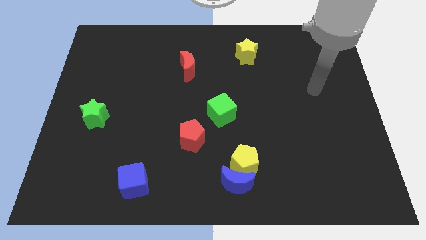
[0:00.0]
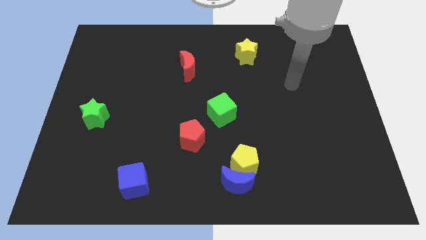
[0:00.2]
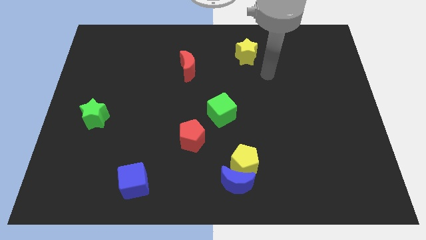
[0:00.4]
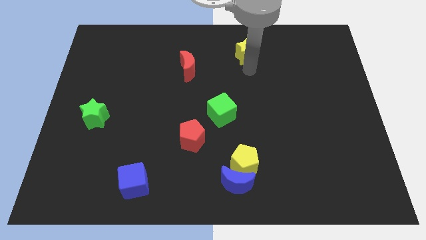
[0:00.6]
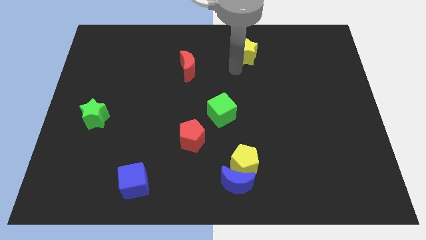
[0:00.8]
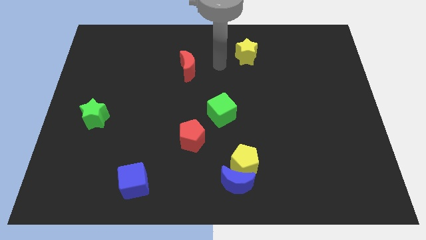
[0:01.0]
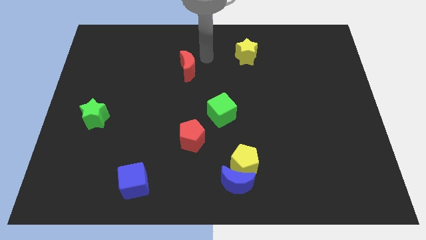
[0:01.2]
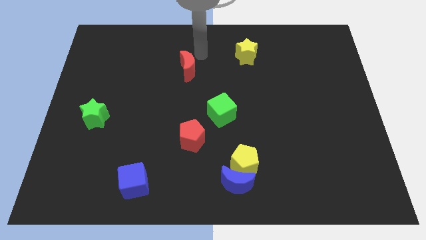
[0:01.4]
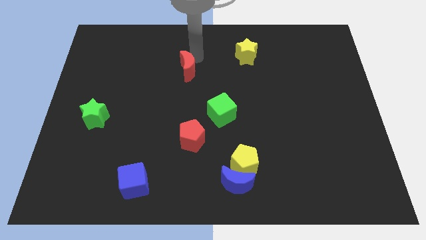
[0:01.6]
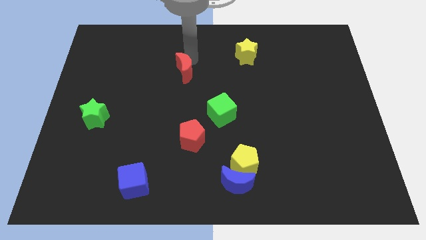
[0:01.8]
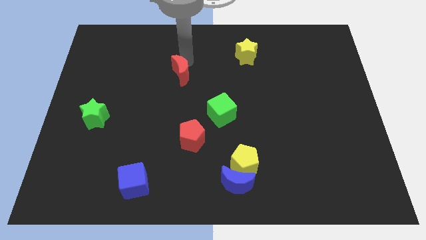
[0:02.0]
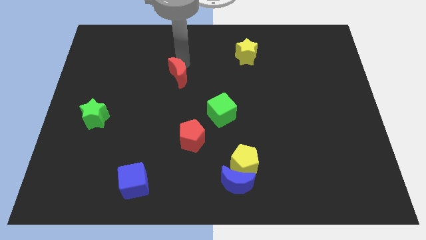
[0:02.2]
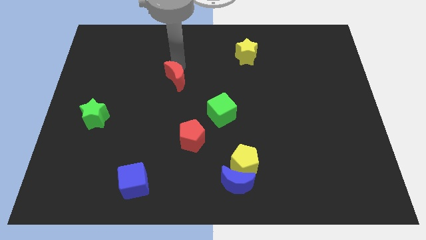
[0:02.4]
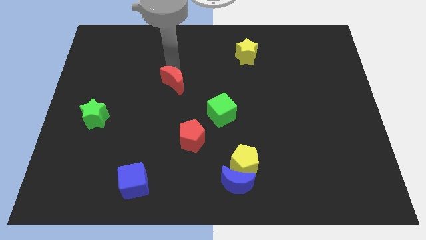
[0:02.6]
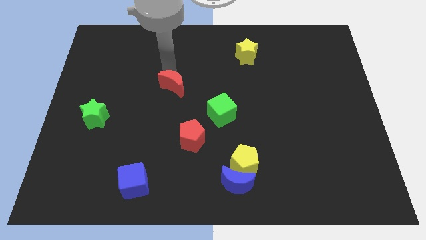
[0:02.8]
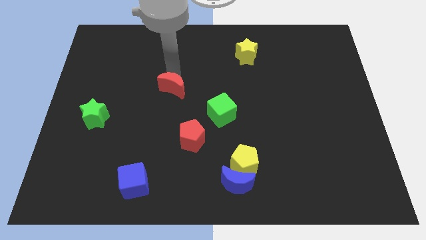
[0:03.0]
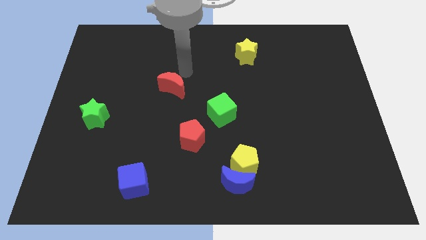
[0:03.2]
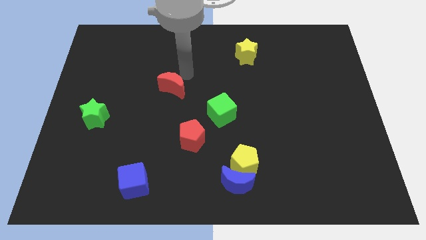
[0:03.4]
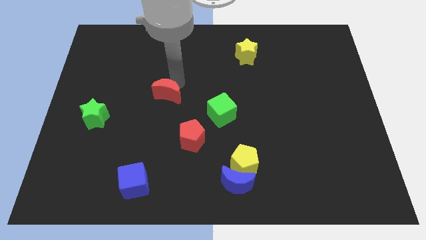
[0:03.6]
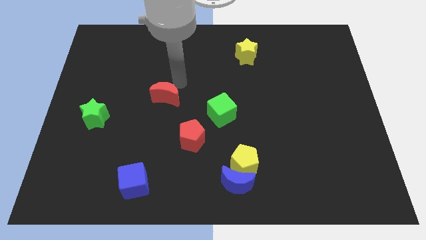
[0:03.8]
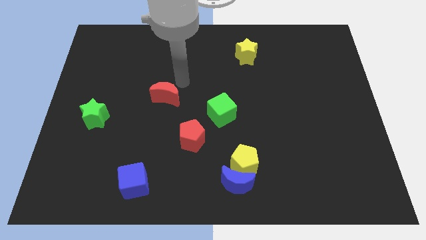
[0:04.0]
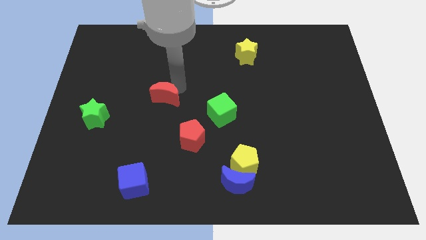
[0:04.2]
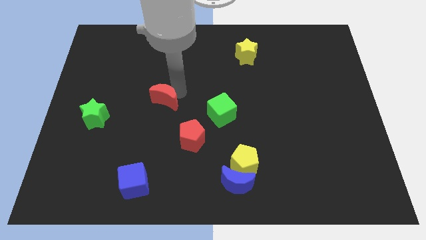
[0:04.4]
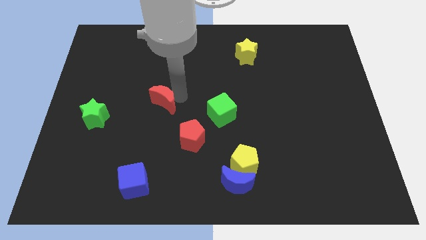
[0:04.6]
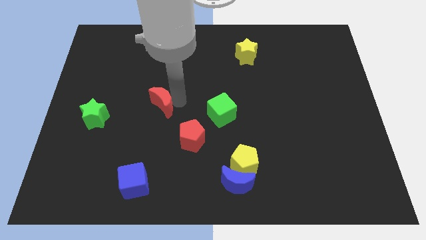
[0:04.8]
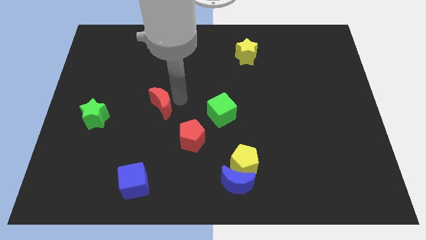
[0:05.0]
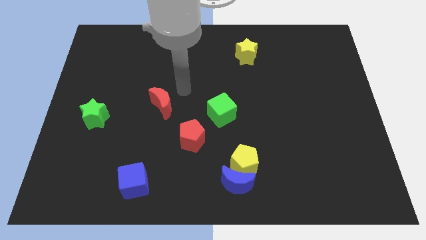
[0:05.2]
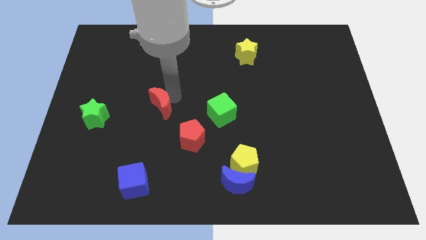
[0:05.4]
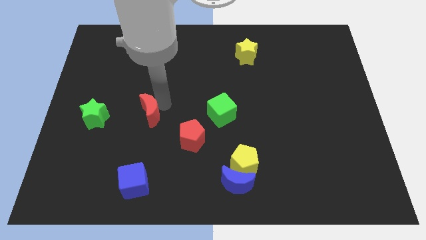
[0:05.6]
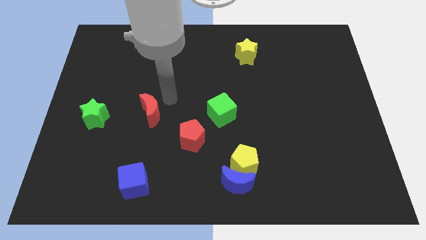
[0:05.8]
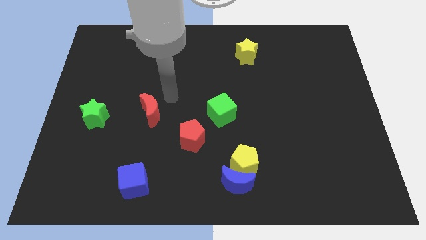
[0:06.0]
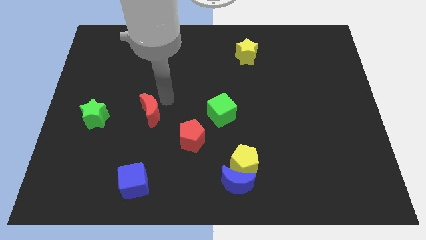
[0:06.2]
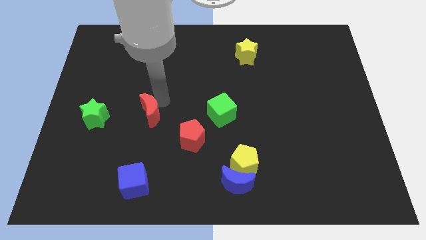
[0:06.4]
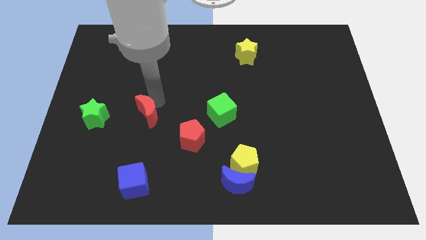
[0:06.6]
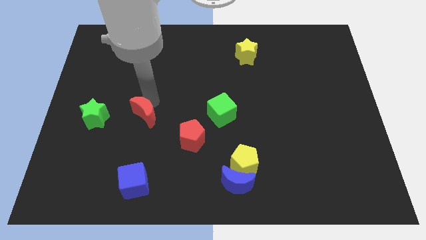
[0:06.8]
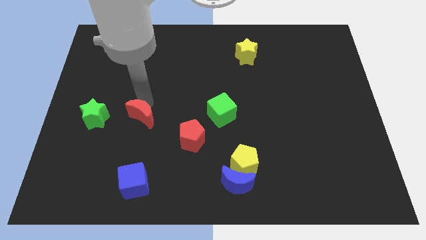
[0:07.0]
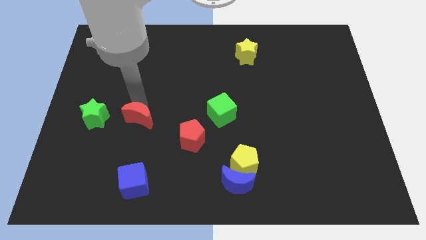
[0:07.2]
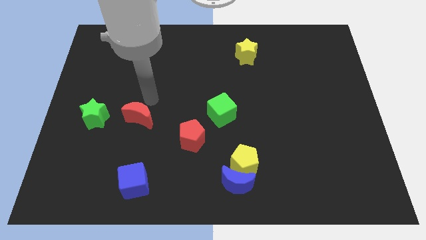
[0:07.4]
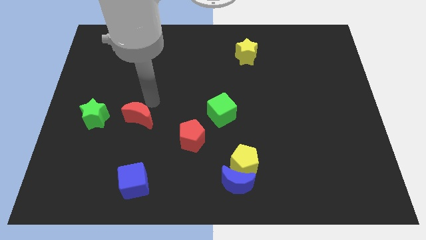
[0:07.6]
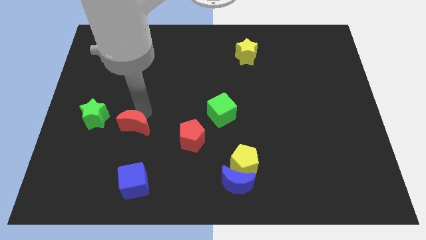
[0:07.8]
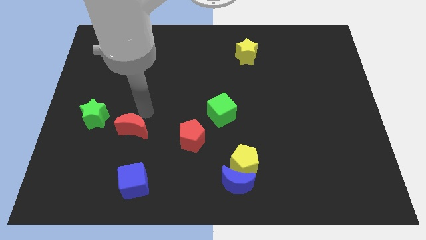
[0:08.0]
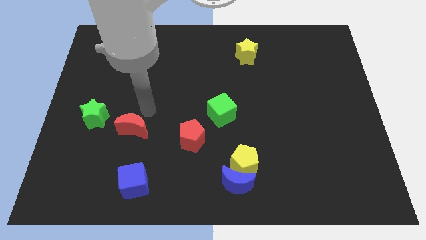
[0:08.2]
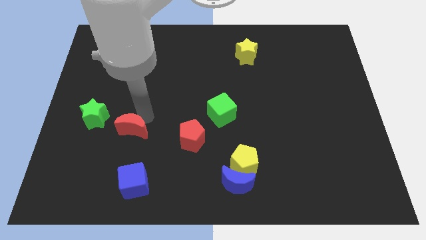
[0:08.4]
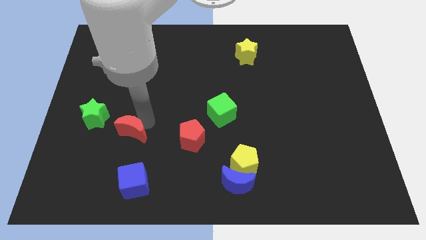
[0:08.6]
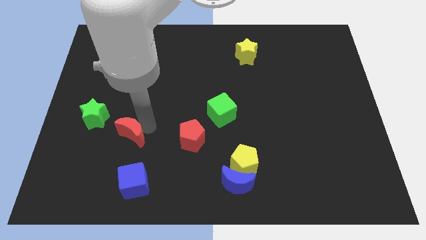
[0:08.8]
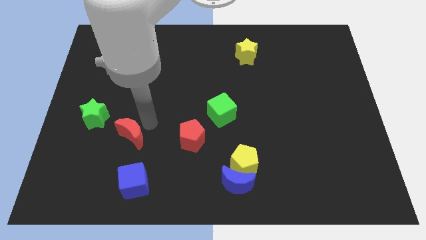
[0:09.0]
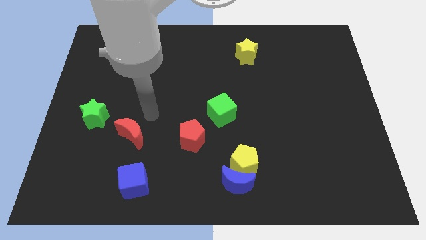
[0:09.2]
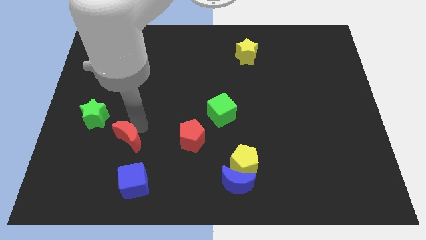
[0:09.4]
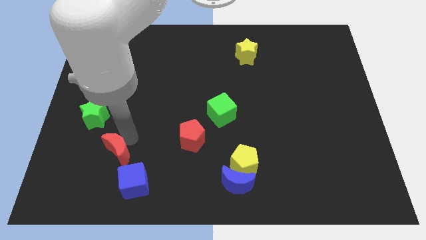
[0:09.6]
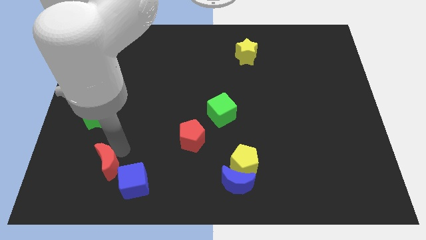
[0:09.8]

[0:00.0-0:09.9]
slide the red moon to the left of the blue cube

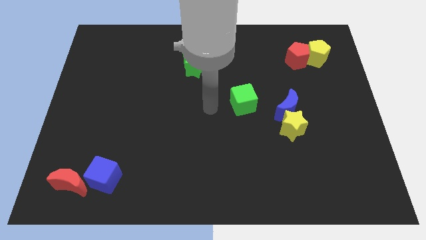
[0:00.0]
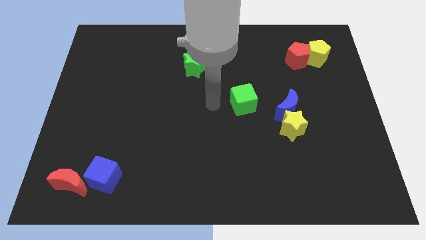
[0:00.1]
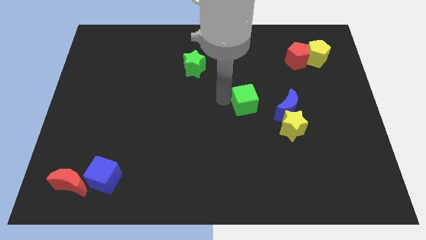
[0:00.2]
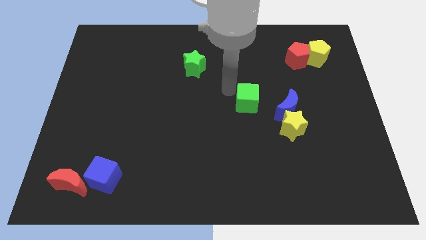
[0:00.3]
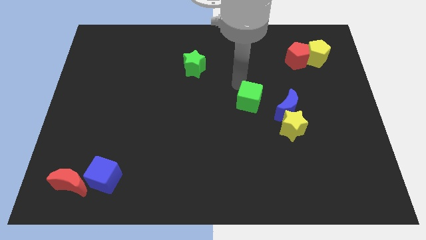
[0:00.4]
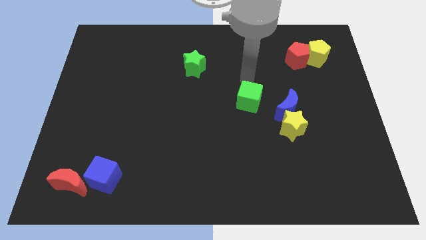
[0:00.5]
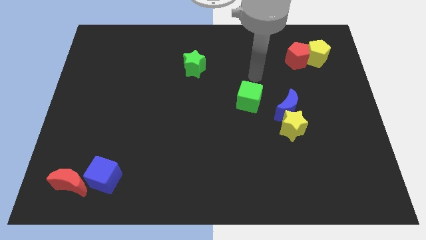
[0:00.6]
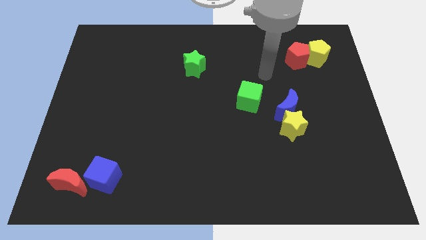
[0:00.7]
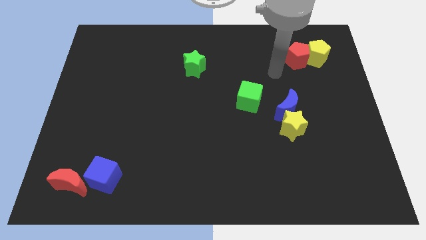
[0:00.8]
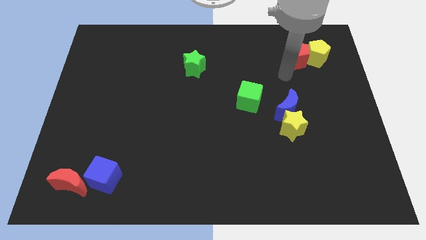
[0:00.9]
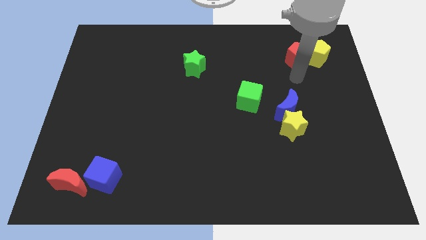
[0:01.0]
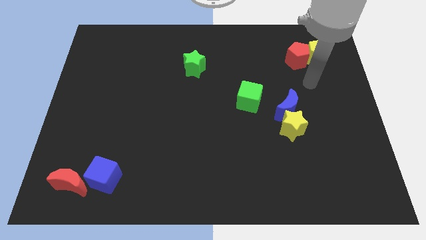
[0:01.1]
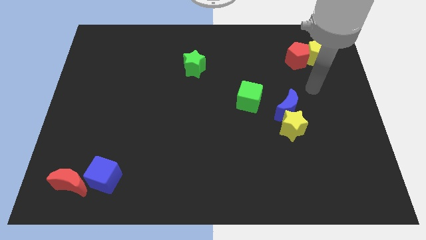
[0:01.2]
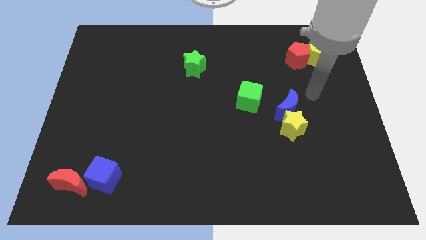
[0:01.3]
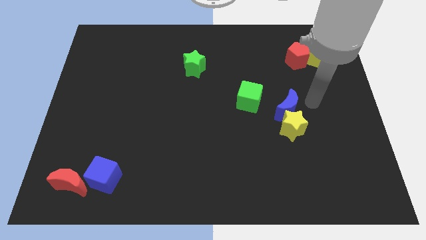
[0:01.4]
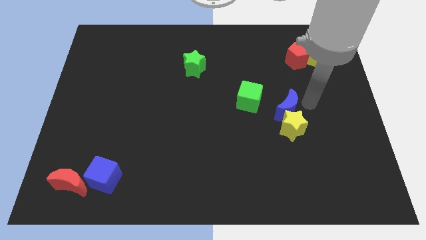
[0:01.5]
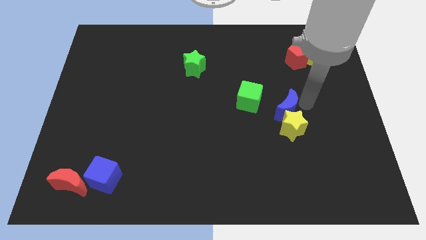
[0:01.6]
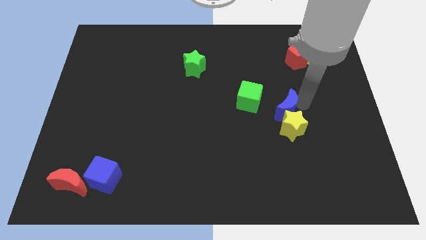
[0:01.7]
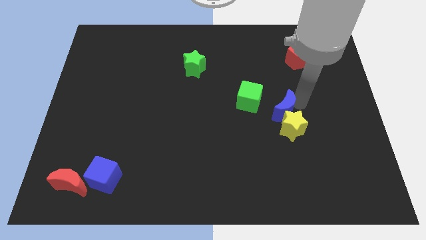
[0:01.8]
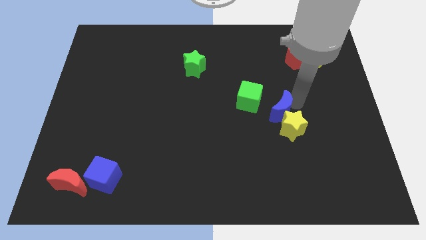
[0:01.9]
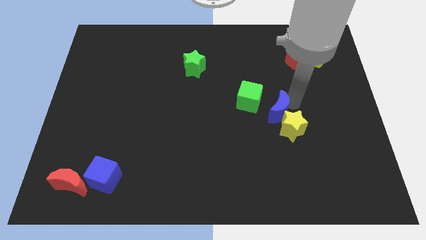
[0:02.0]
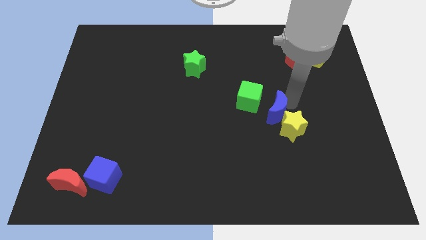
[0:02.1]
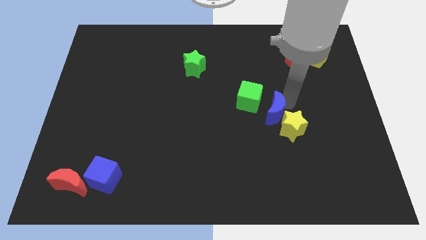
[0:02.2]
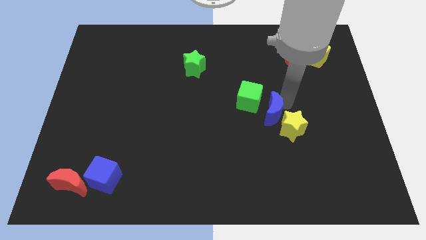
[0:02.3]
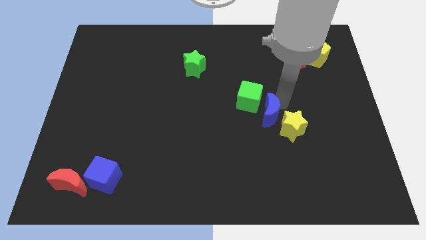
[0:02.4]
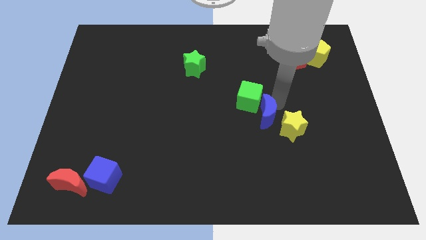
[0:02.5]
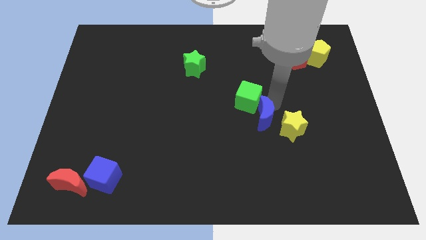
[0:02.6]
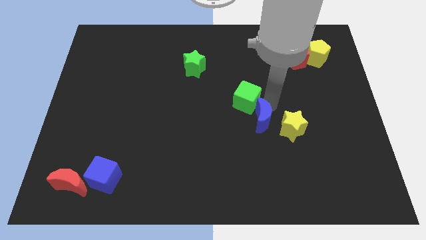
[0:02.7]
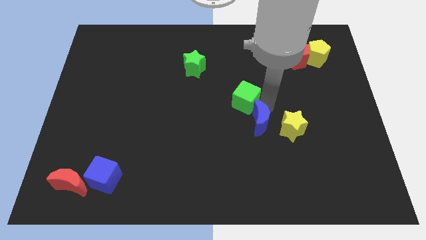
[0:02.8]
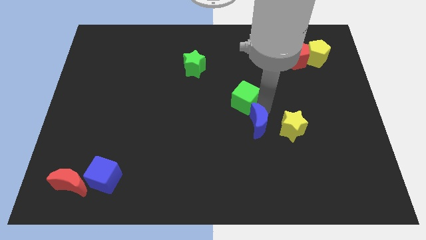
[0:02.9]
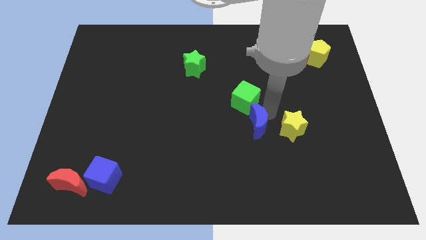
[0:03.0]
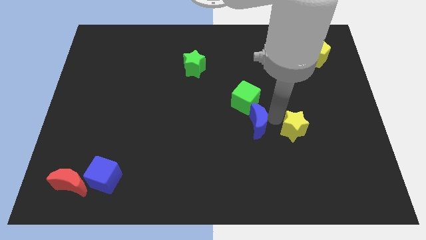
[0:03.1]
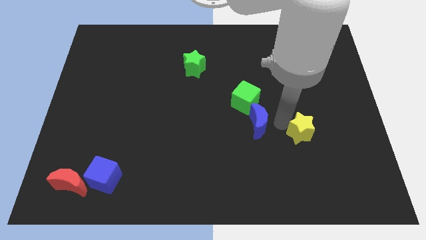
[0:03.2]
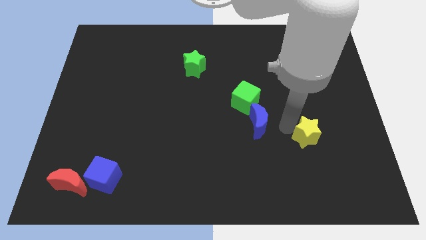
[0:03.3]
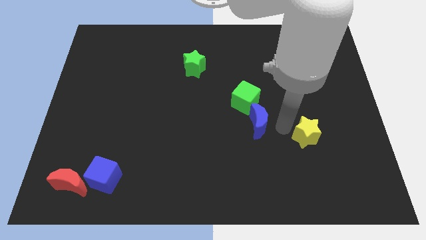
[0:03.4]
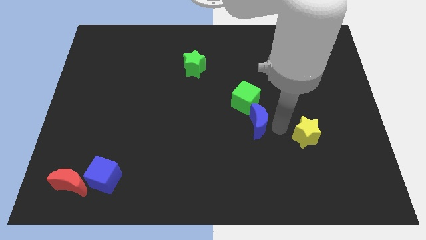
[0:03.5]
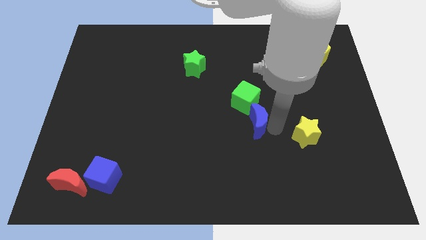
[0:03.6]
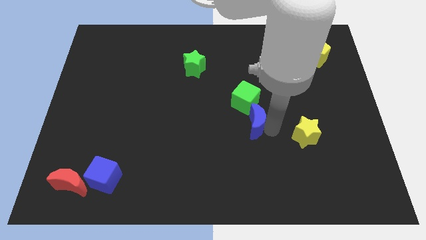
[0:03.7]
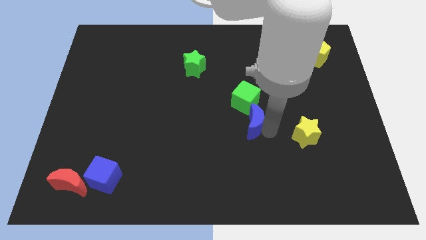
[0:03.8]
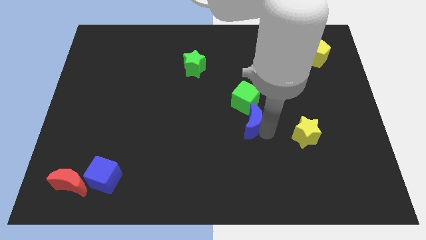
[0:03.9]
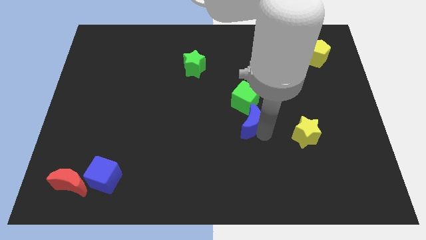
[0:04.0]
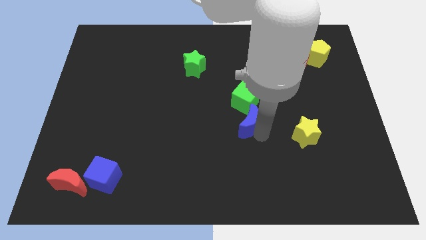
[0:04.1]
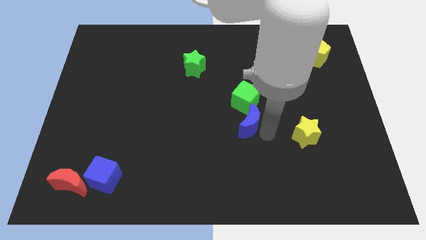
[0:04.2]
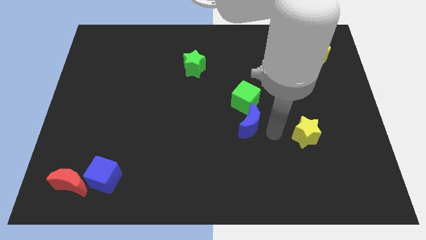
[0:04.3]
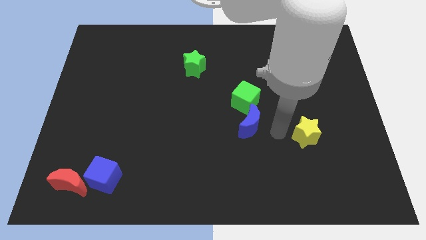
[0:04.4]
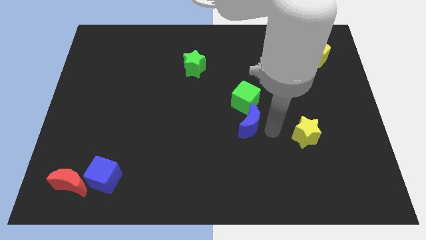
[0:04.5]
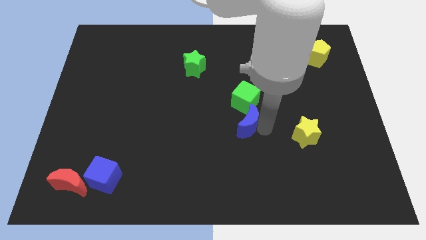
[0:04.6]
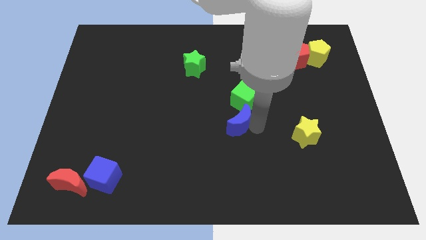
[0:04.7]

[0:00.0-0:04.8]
slide the blue moon diagonally down and to the left of the green cube
